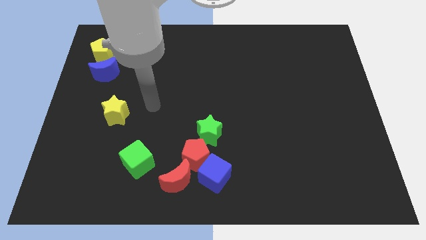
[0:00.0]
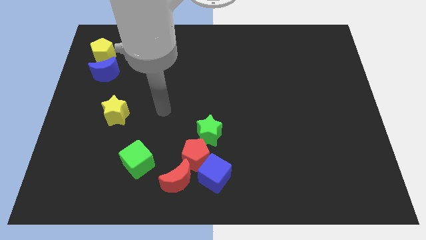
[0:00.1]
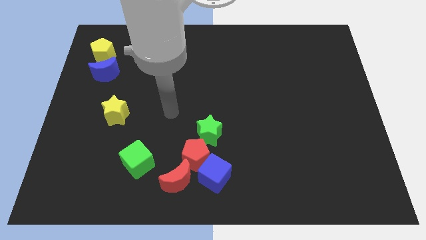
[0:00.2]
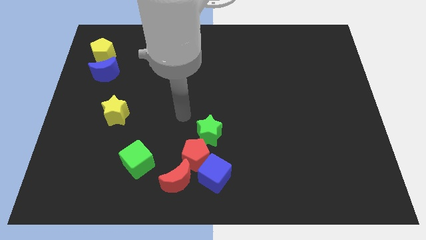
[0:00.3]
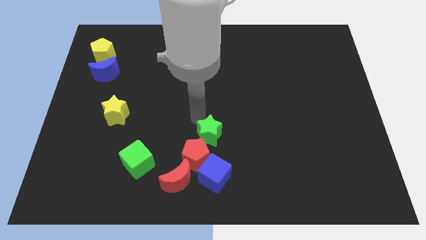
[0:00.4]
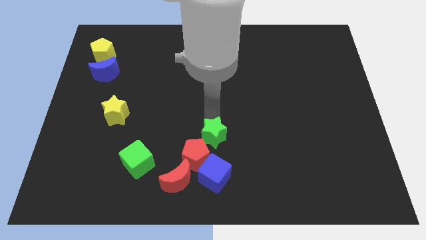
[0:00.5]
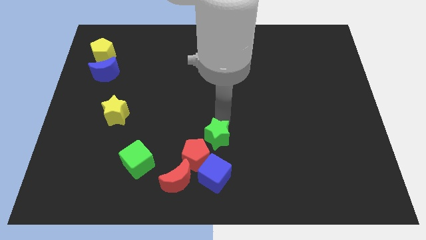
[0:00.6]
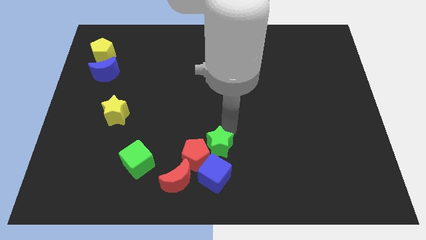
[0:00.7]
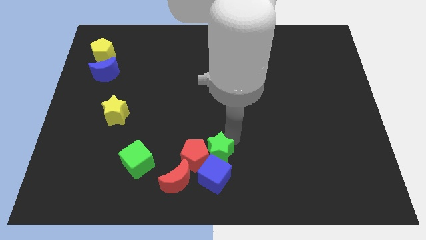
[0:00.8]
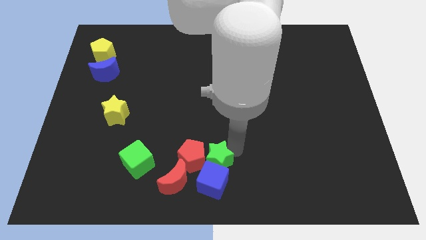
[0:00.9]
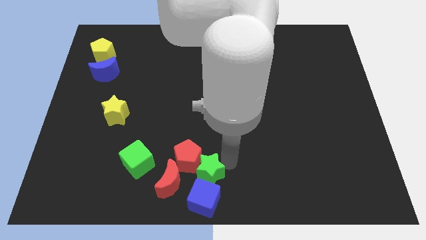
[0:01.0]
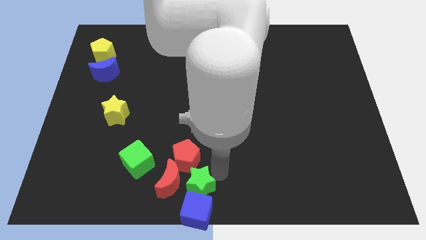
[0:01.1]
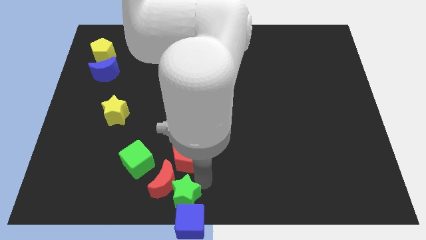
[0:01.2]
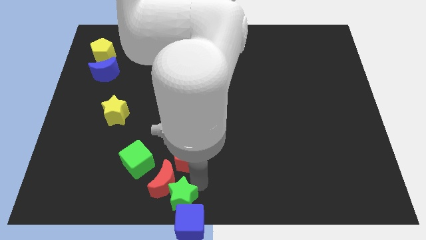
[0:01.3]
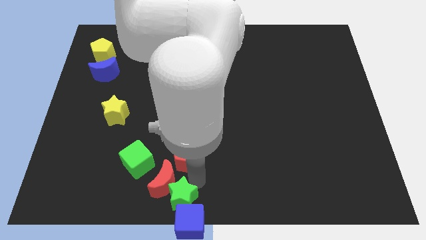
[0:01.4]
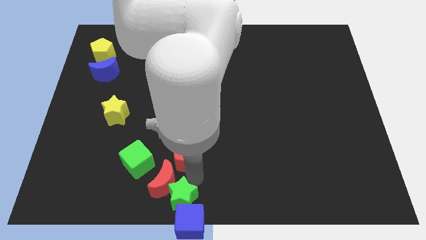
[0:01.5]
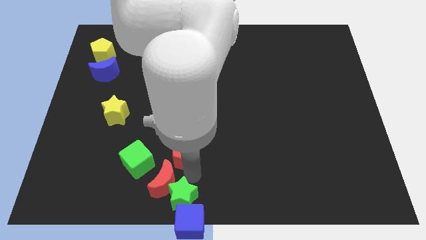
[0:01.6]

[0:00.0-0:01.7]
move the red pentagon away from the group

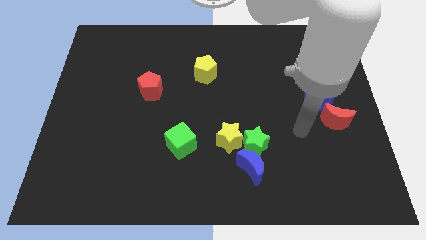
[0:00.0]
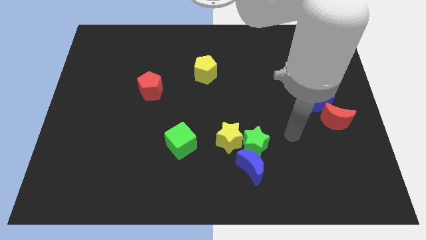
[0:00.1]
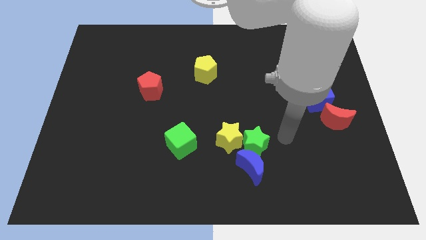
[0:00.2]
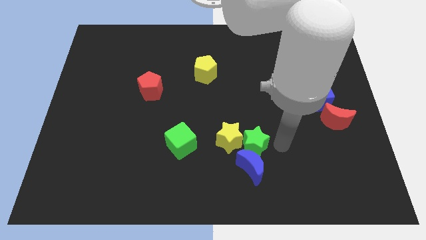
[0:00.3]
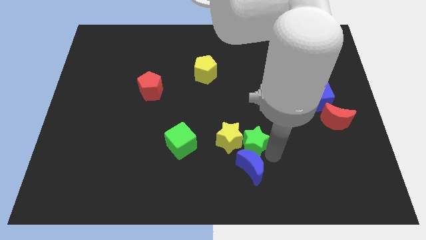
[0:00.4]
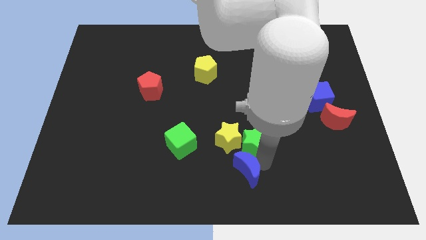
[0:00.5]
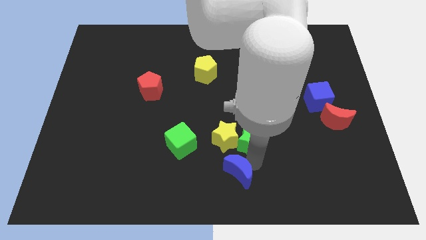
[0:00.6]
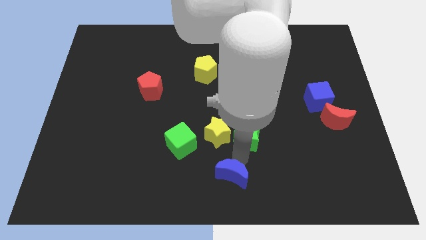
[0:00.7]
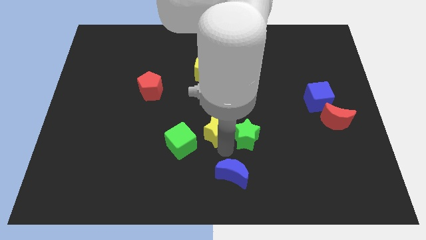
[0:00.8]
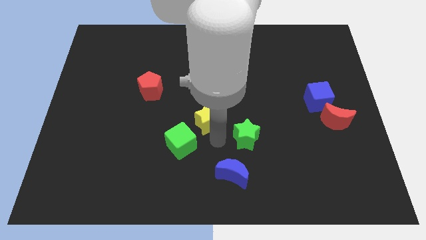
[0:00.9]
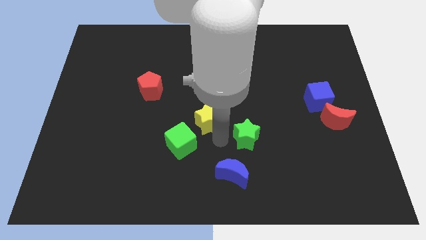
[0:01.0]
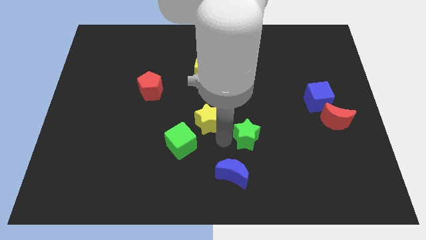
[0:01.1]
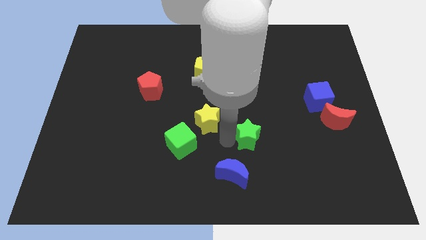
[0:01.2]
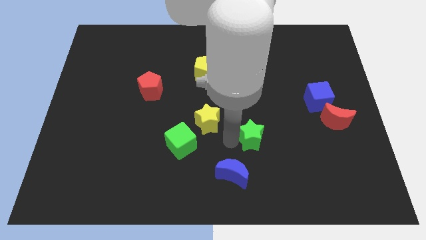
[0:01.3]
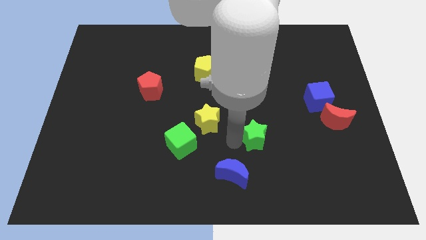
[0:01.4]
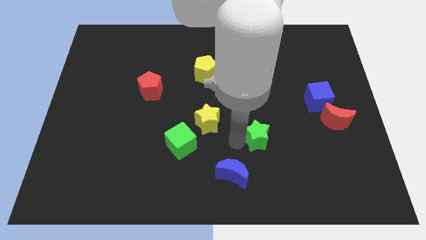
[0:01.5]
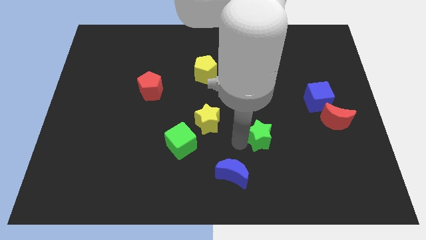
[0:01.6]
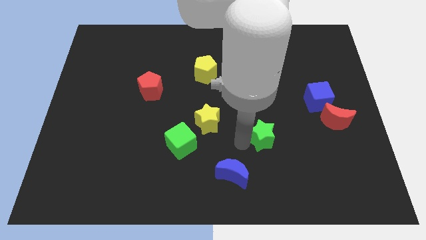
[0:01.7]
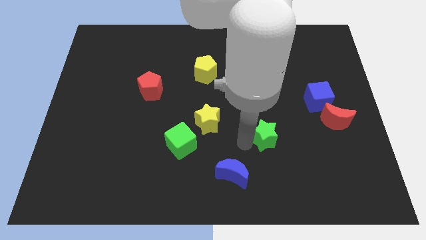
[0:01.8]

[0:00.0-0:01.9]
separate the green star from the yellow star and blue moon

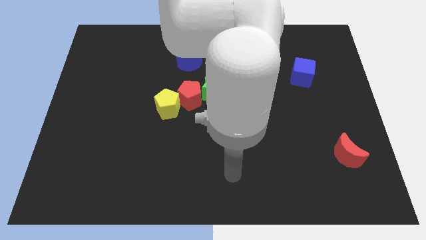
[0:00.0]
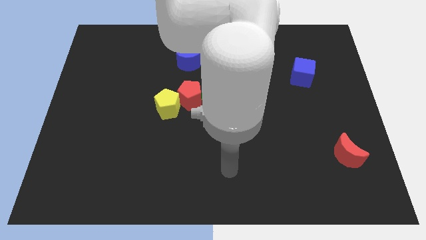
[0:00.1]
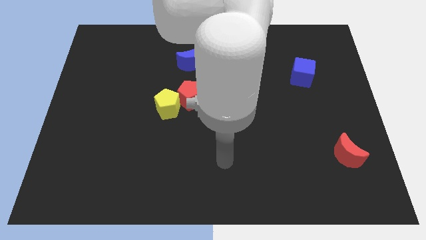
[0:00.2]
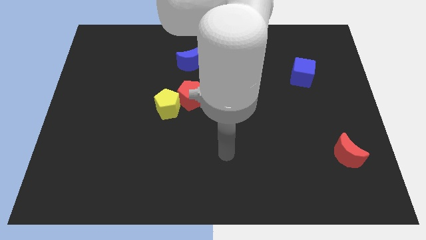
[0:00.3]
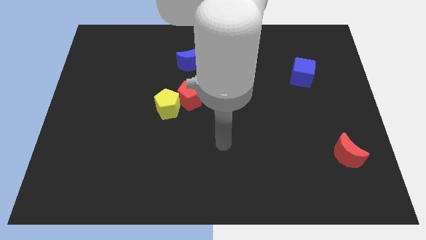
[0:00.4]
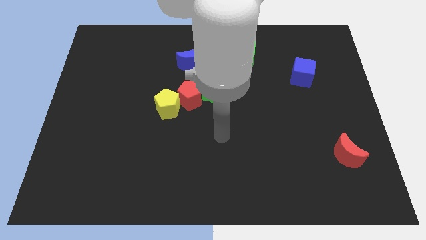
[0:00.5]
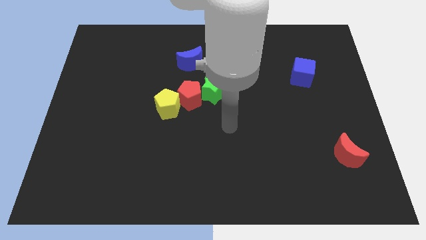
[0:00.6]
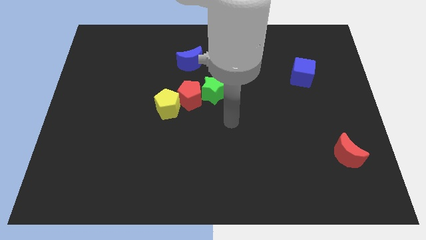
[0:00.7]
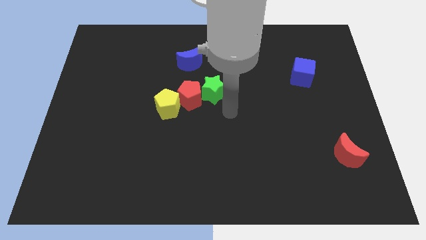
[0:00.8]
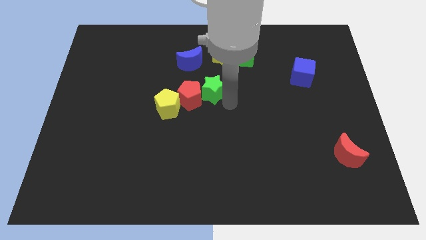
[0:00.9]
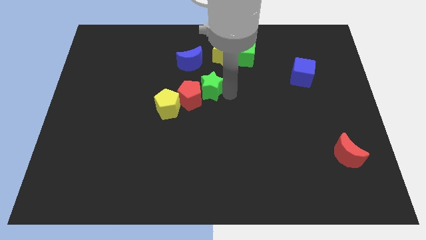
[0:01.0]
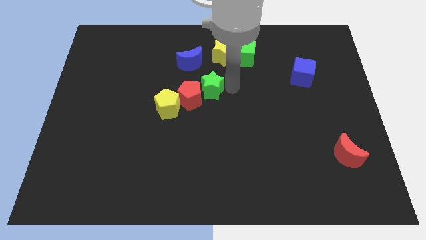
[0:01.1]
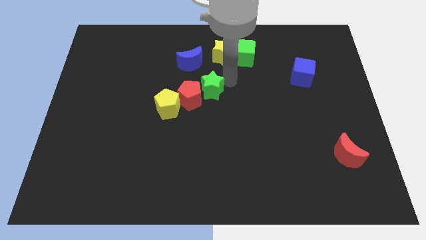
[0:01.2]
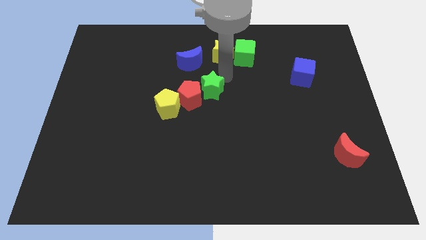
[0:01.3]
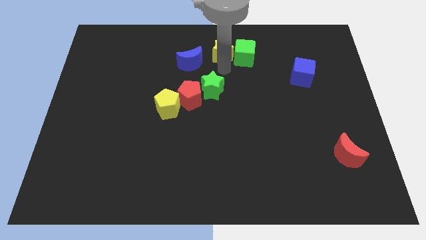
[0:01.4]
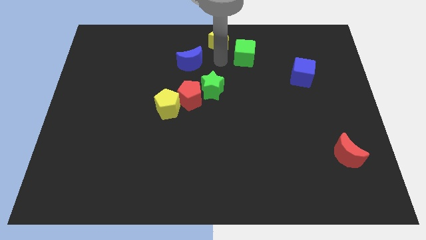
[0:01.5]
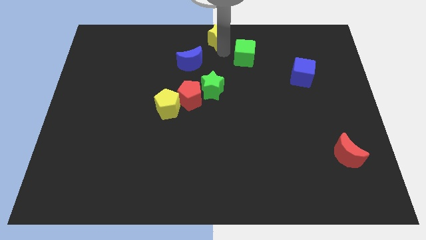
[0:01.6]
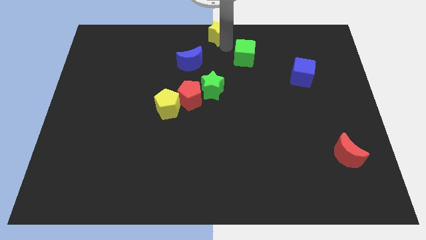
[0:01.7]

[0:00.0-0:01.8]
separate the green cube from the yellow star

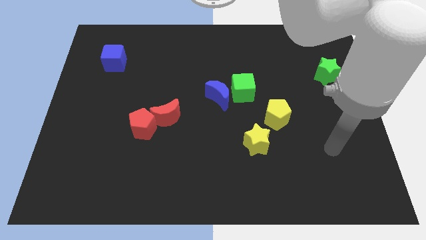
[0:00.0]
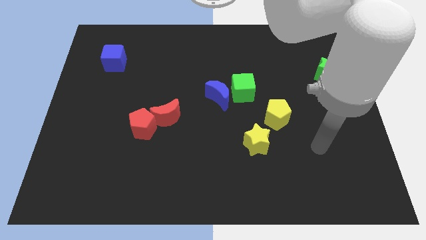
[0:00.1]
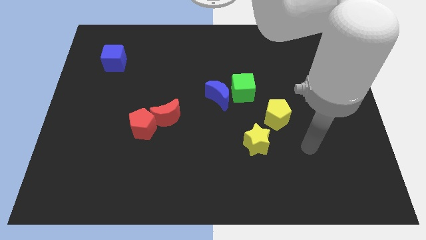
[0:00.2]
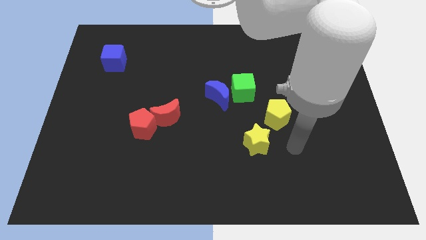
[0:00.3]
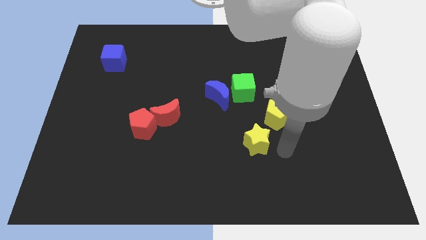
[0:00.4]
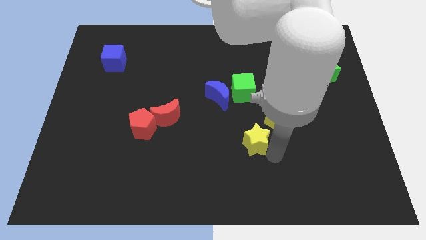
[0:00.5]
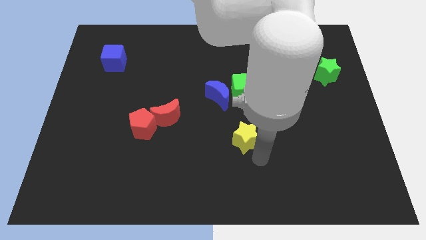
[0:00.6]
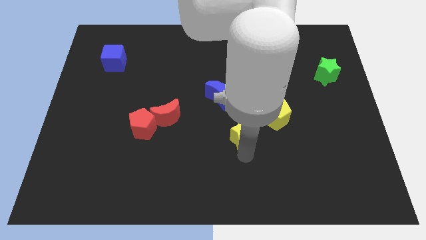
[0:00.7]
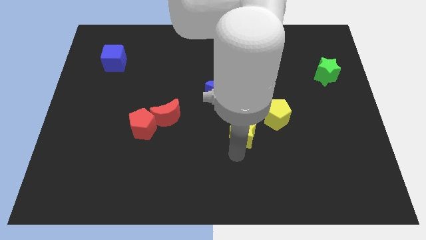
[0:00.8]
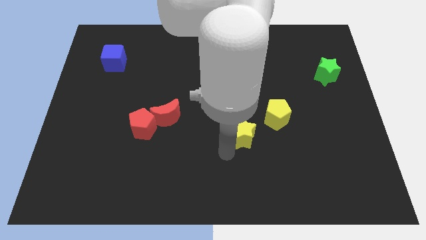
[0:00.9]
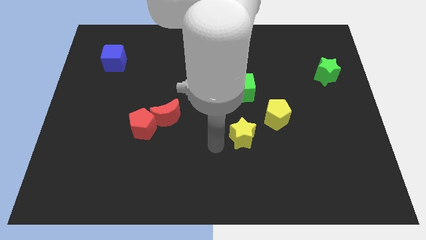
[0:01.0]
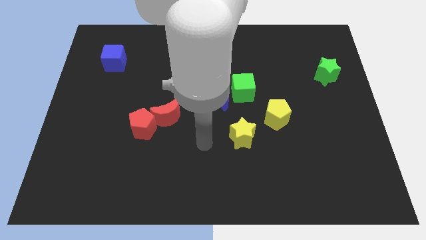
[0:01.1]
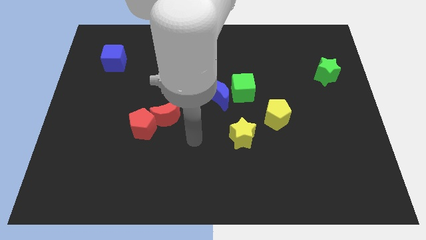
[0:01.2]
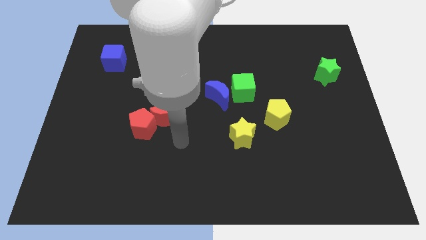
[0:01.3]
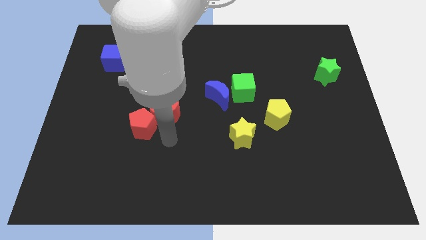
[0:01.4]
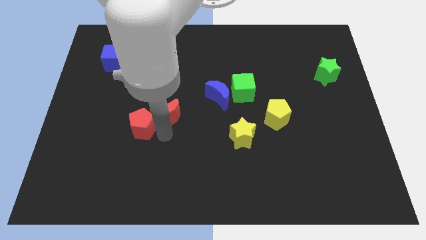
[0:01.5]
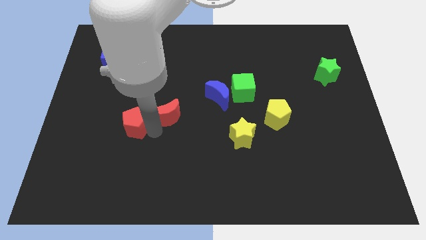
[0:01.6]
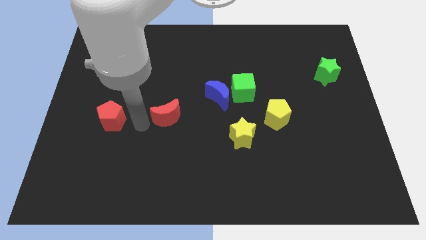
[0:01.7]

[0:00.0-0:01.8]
pull the red moon apart from the red pentagon

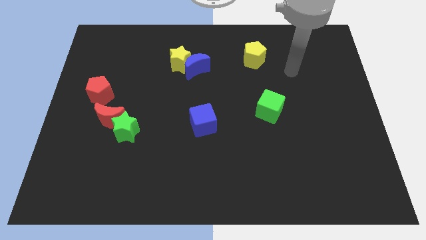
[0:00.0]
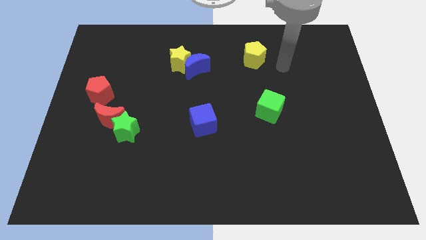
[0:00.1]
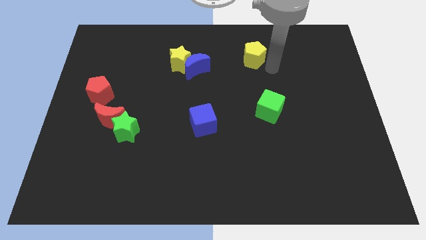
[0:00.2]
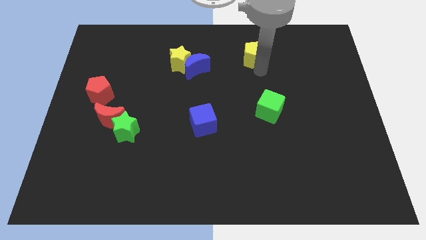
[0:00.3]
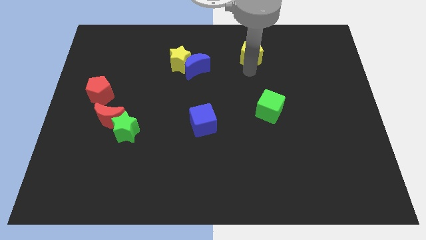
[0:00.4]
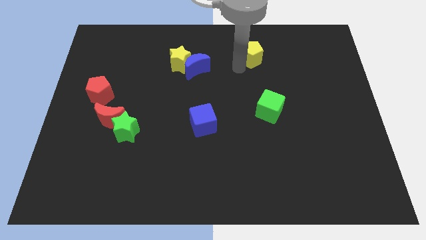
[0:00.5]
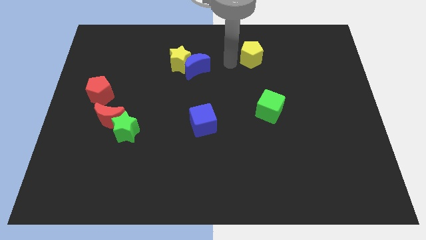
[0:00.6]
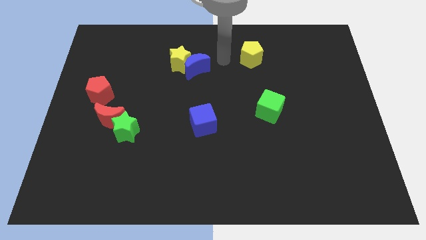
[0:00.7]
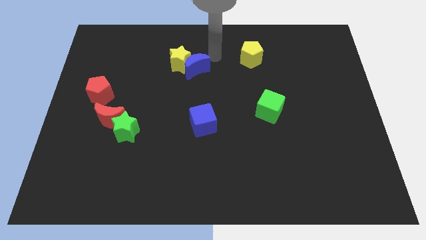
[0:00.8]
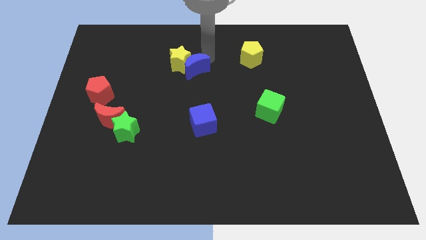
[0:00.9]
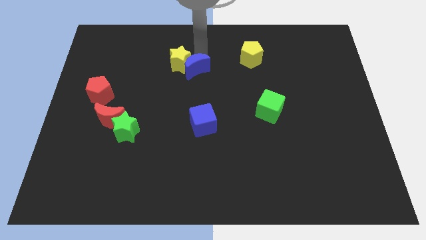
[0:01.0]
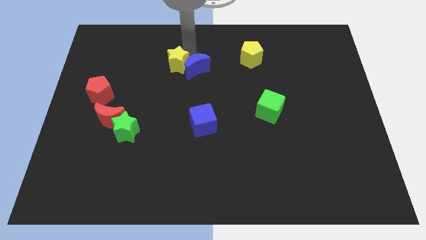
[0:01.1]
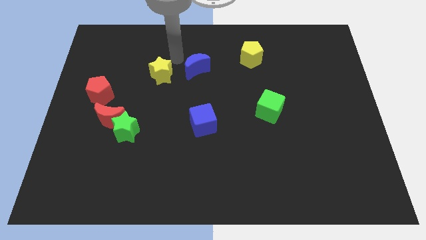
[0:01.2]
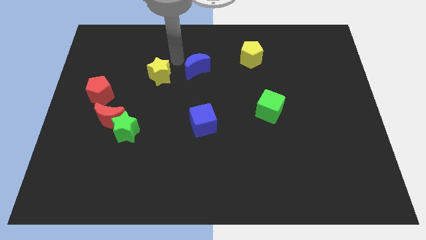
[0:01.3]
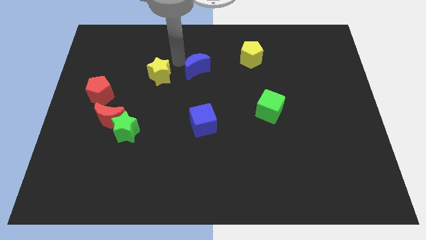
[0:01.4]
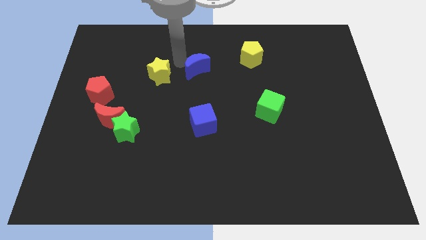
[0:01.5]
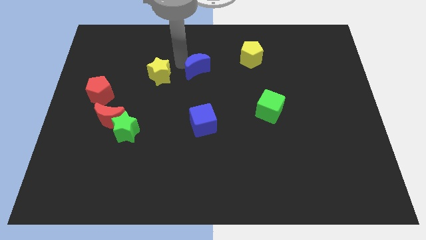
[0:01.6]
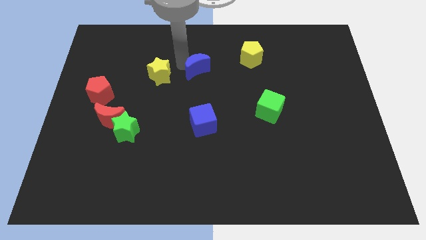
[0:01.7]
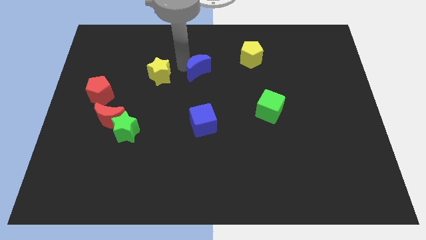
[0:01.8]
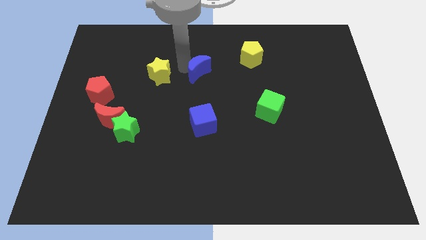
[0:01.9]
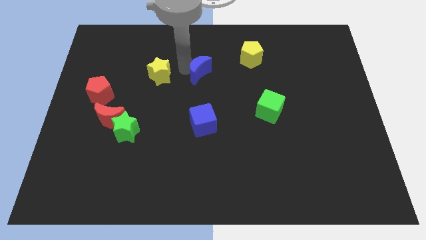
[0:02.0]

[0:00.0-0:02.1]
pull the blue moon apart from the yellow star
